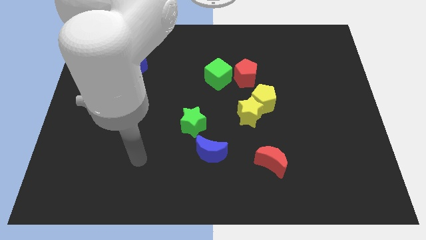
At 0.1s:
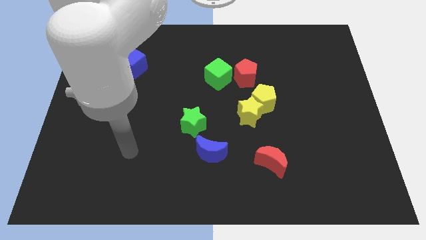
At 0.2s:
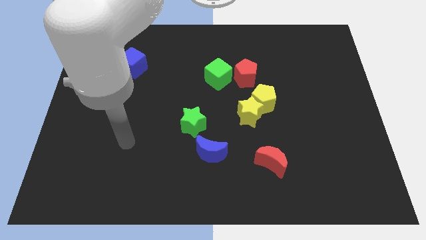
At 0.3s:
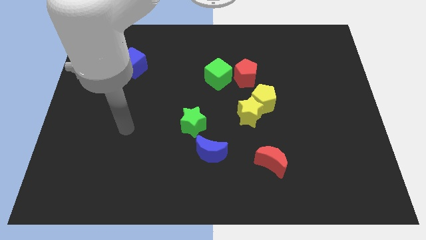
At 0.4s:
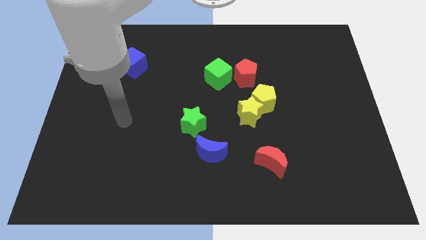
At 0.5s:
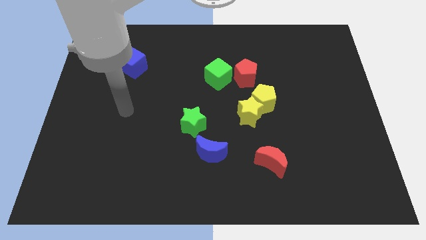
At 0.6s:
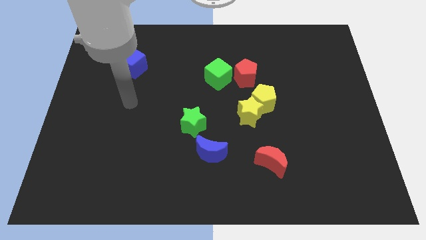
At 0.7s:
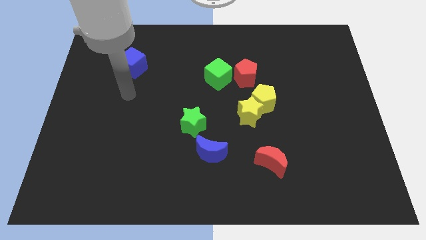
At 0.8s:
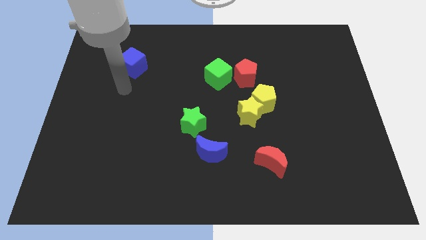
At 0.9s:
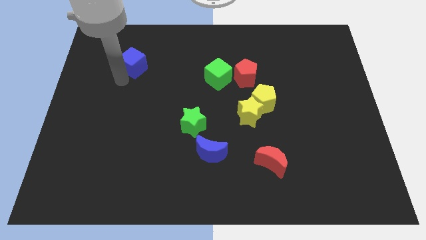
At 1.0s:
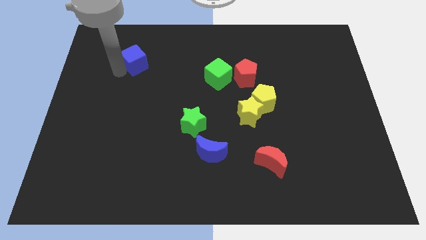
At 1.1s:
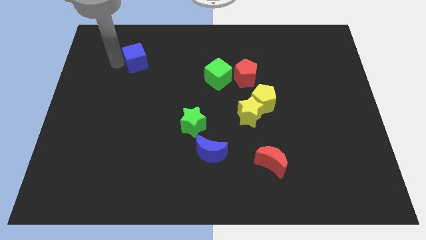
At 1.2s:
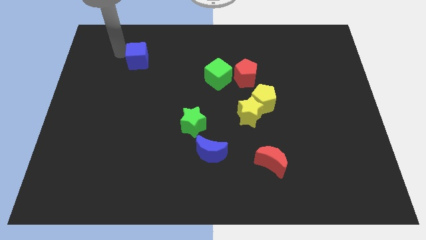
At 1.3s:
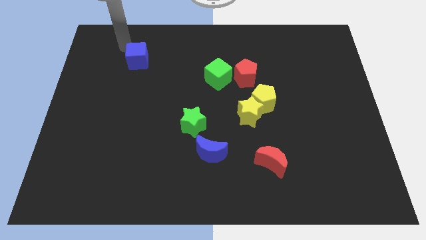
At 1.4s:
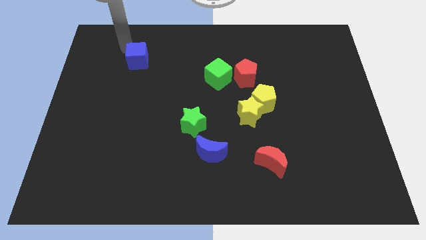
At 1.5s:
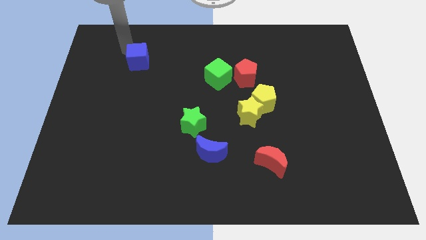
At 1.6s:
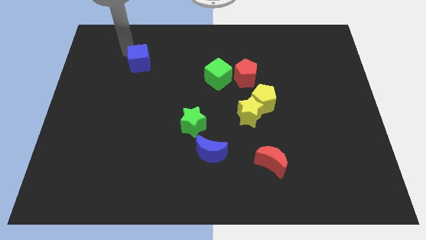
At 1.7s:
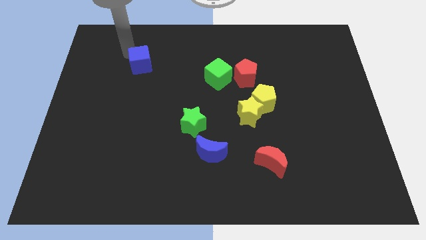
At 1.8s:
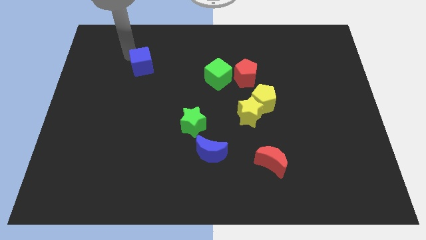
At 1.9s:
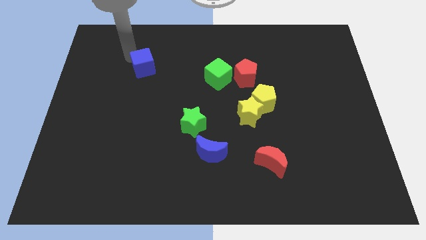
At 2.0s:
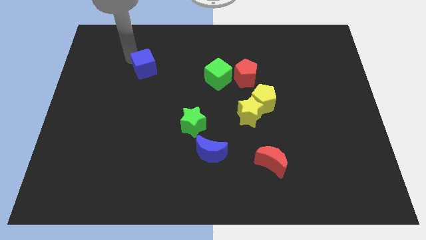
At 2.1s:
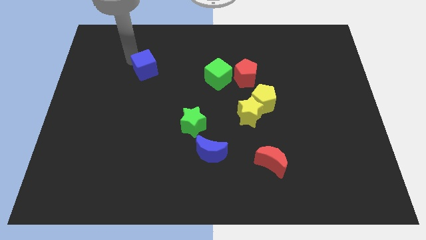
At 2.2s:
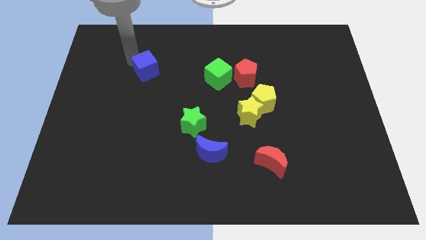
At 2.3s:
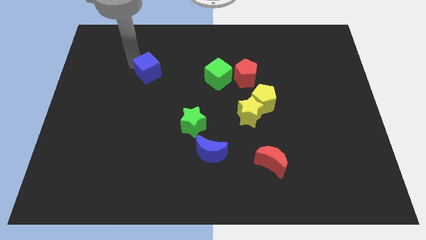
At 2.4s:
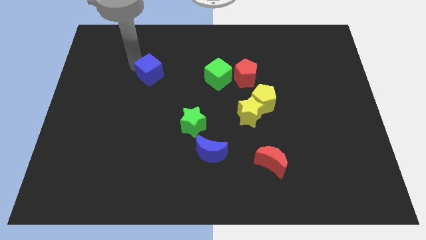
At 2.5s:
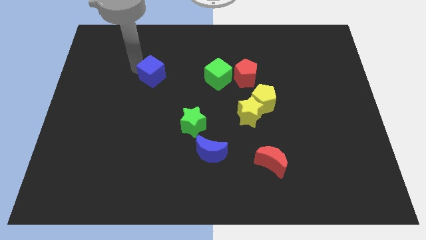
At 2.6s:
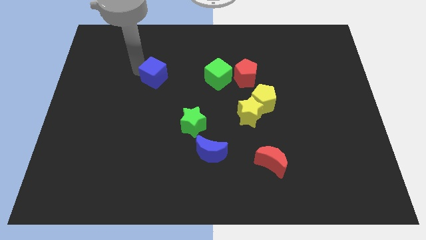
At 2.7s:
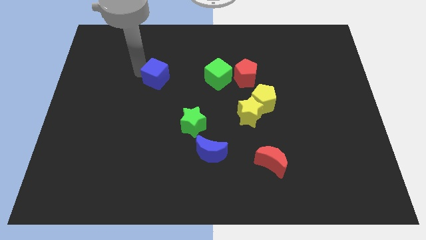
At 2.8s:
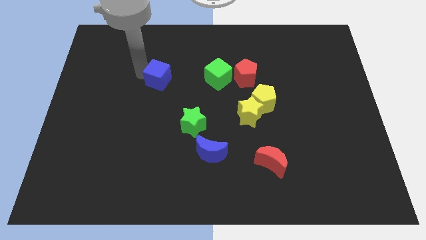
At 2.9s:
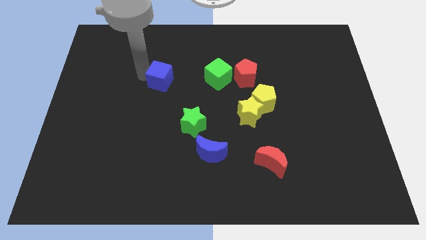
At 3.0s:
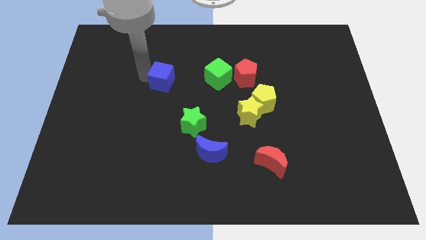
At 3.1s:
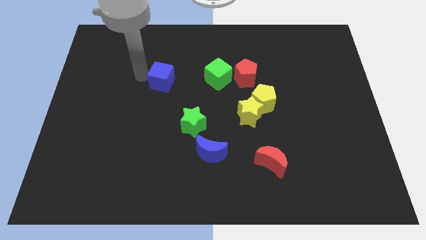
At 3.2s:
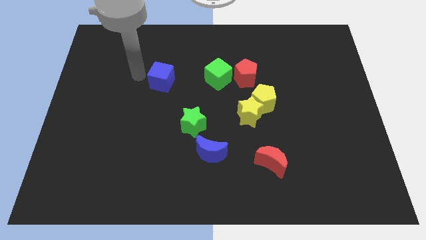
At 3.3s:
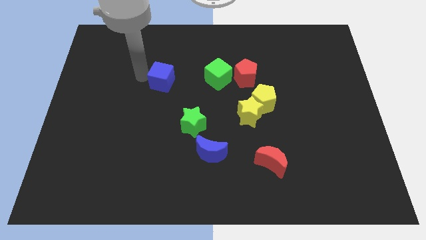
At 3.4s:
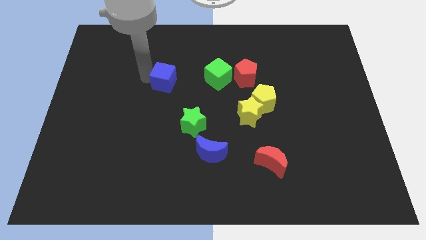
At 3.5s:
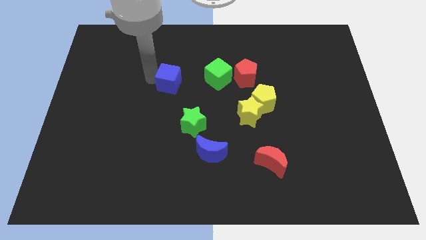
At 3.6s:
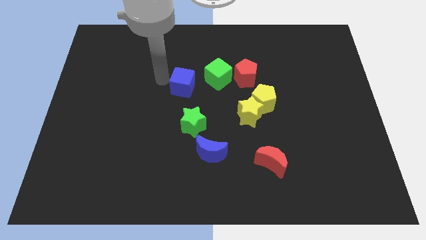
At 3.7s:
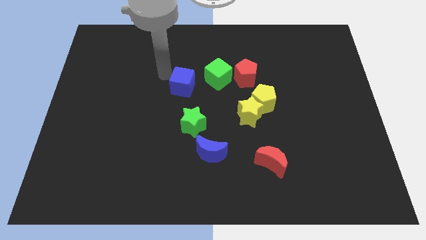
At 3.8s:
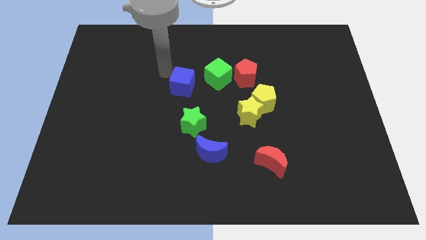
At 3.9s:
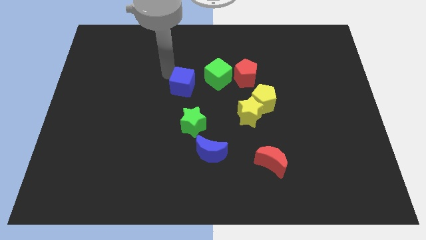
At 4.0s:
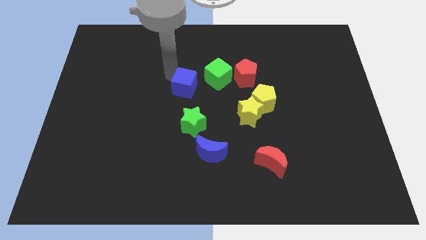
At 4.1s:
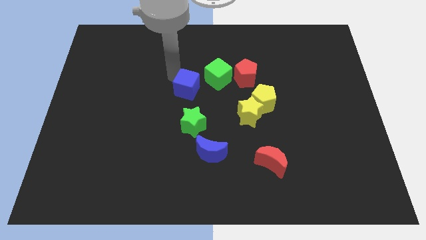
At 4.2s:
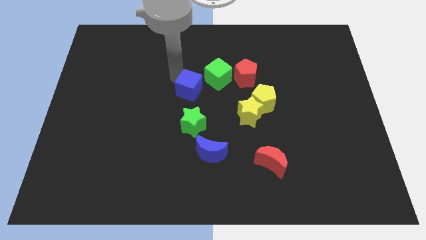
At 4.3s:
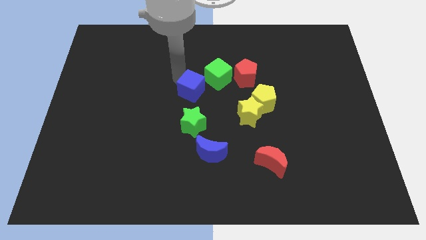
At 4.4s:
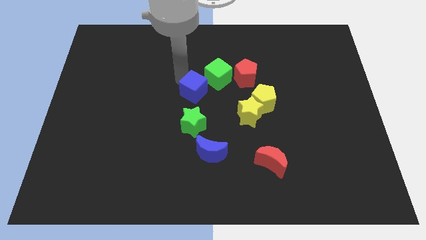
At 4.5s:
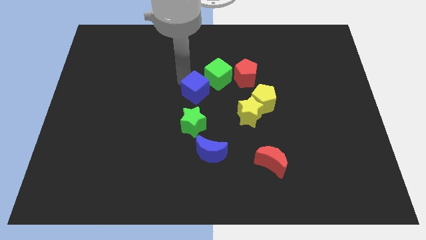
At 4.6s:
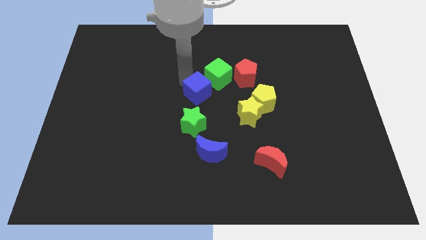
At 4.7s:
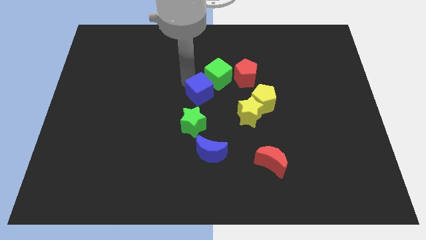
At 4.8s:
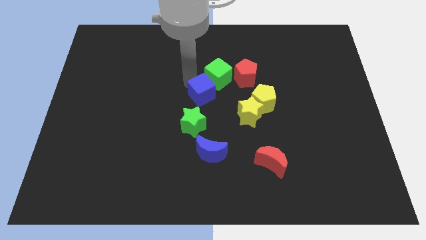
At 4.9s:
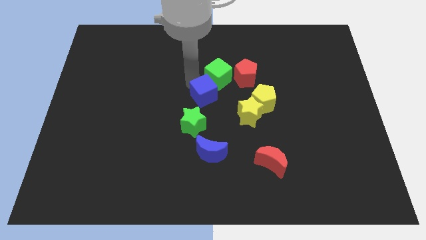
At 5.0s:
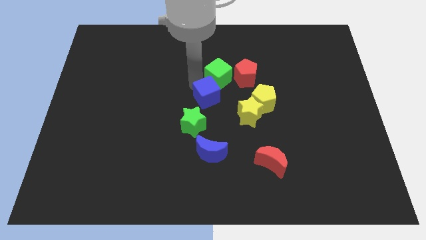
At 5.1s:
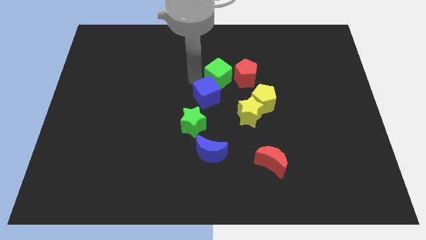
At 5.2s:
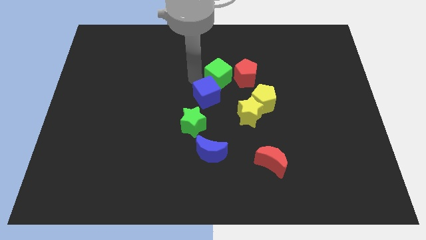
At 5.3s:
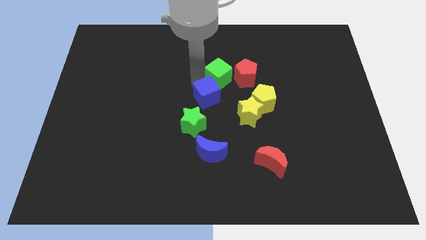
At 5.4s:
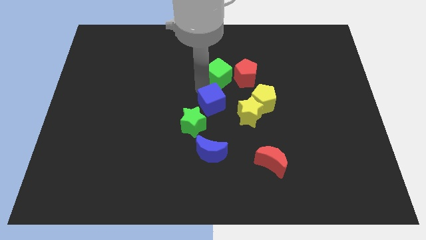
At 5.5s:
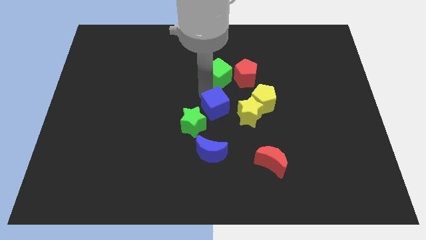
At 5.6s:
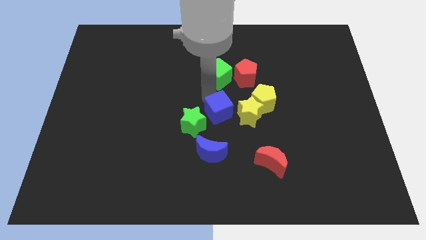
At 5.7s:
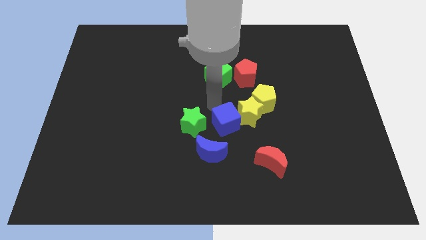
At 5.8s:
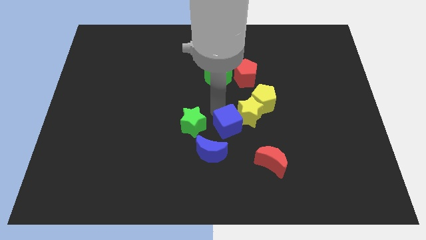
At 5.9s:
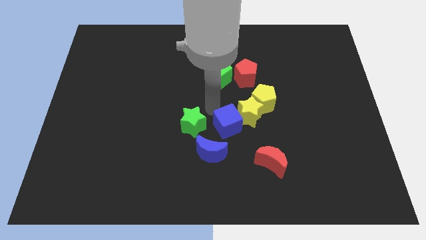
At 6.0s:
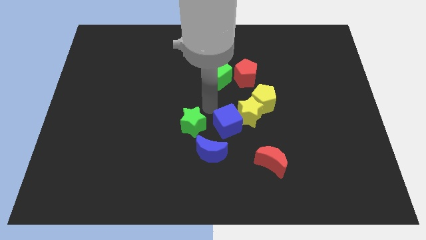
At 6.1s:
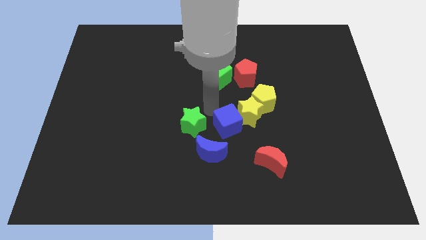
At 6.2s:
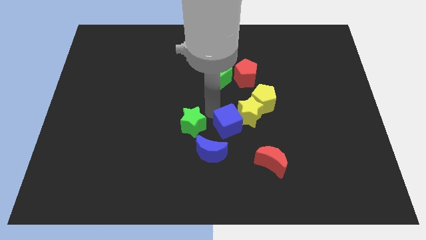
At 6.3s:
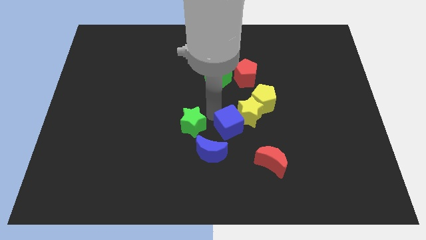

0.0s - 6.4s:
put the blue cube to the top left side of the red moon

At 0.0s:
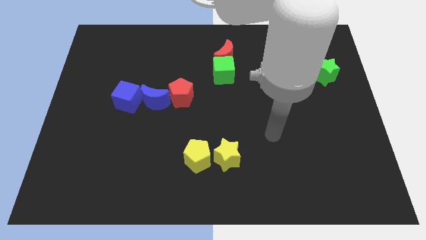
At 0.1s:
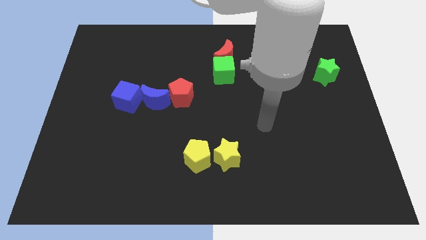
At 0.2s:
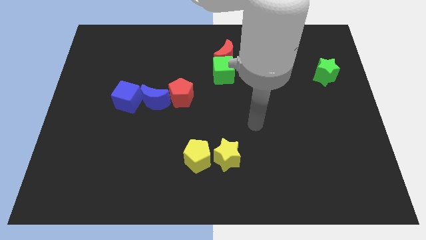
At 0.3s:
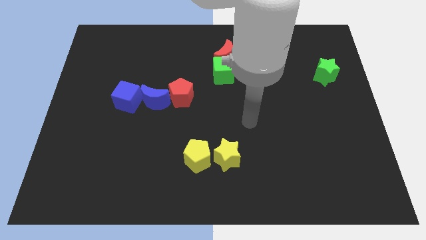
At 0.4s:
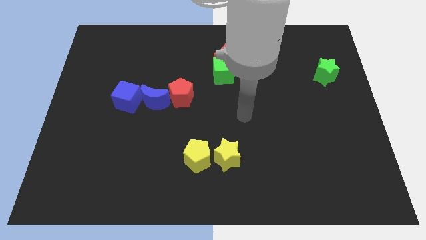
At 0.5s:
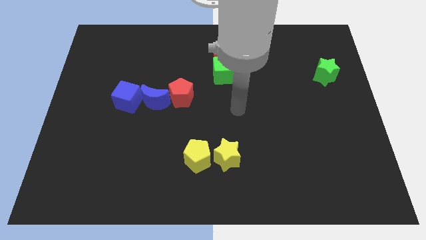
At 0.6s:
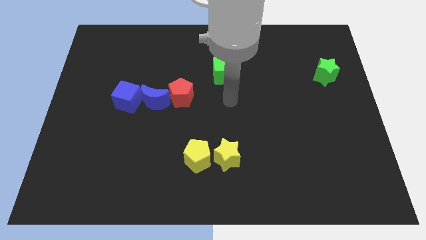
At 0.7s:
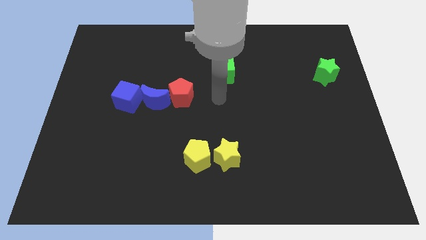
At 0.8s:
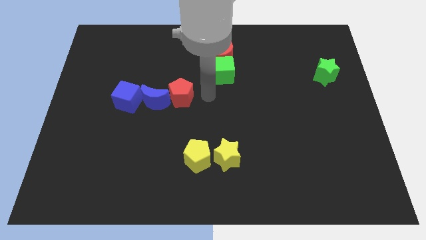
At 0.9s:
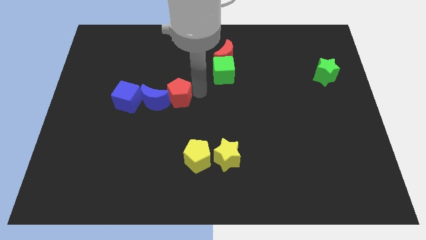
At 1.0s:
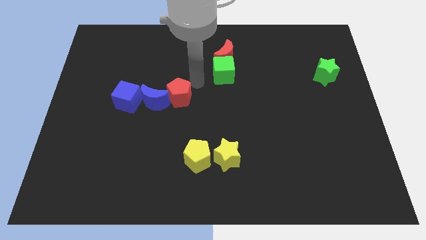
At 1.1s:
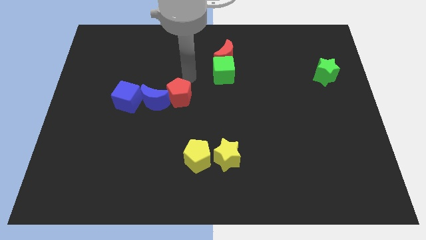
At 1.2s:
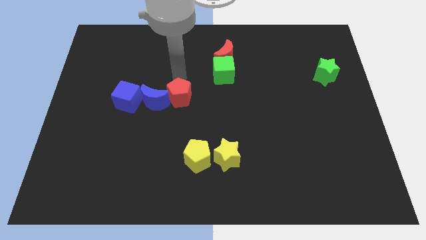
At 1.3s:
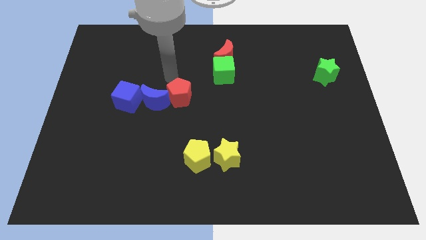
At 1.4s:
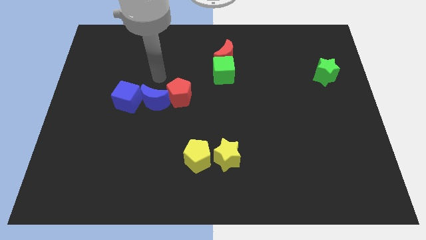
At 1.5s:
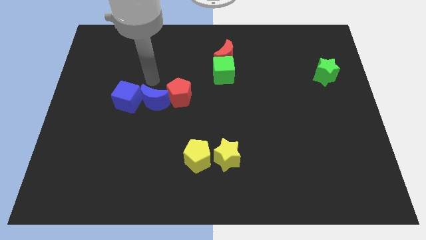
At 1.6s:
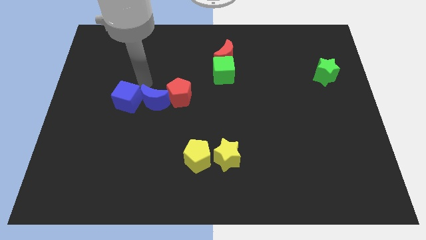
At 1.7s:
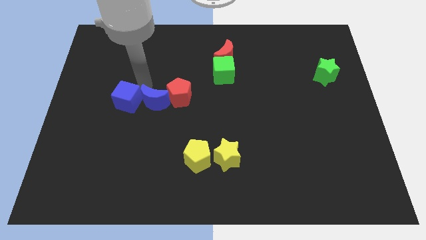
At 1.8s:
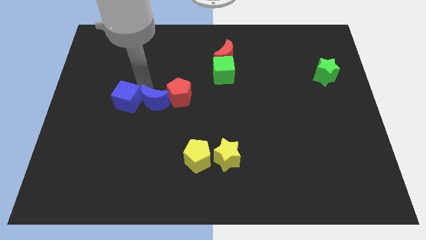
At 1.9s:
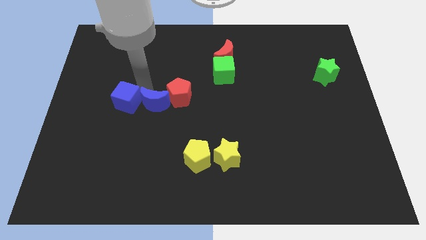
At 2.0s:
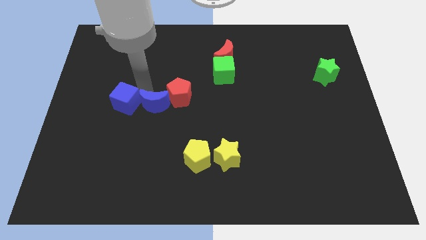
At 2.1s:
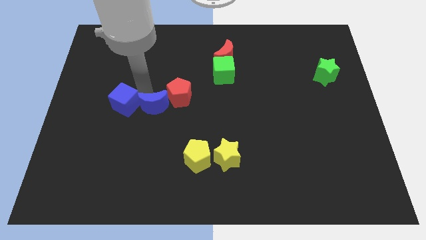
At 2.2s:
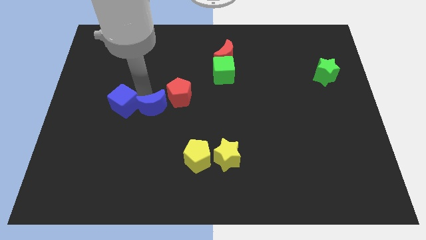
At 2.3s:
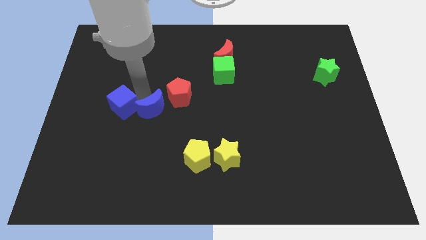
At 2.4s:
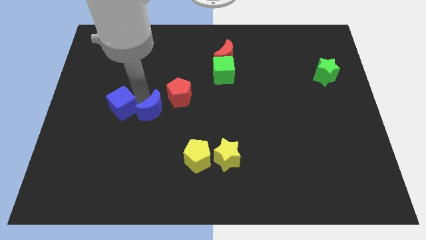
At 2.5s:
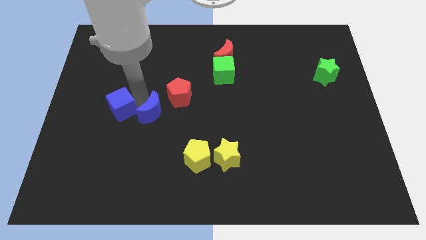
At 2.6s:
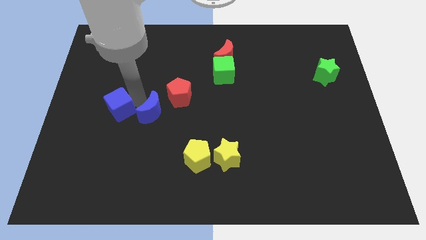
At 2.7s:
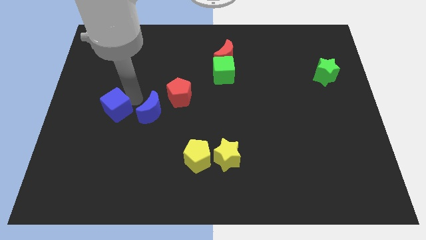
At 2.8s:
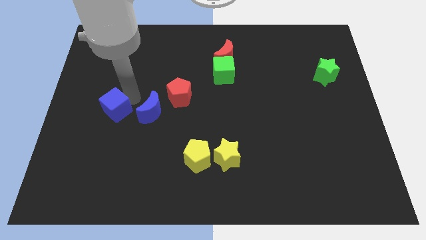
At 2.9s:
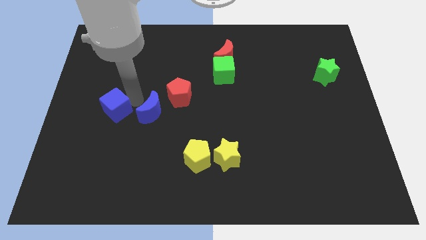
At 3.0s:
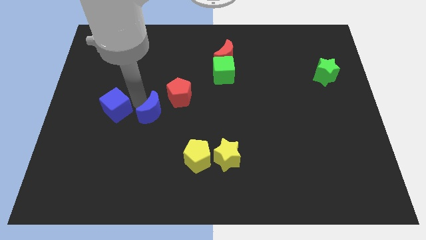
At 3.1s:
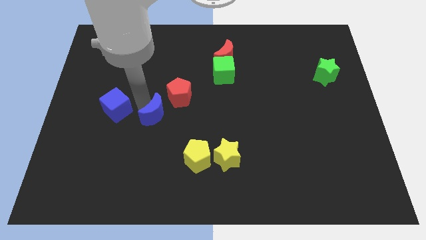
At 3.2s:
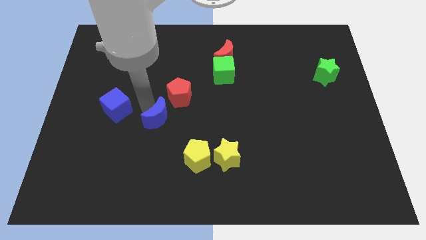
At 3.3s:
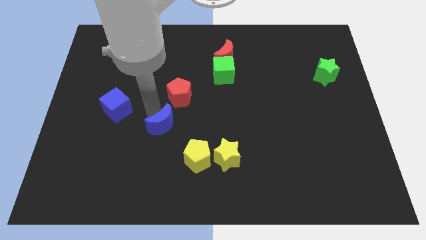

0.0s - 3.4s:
put the blue moon to the top left of the yellow pentagon
